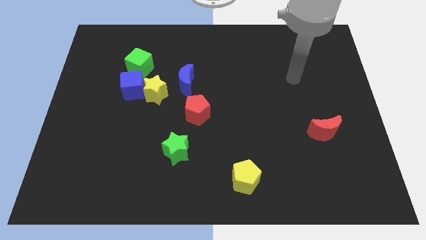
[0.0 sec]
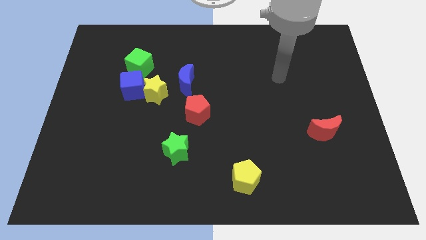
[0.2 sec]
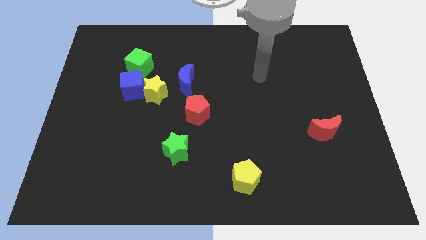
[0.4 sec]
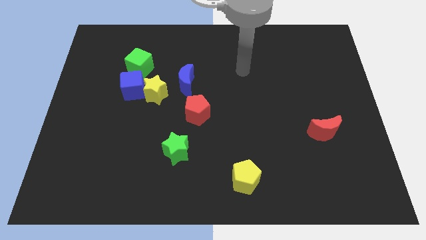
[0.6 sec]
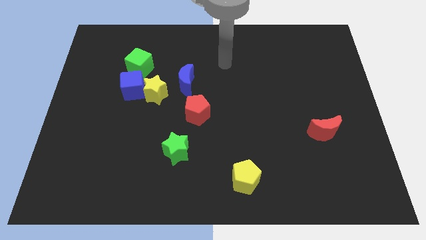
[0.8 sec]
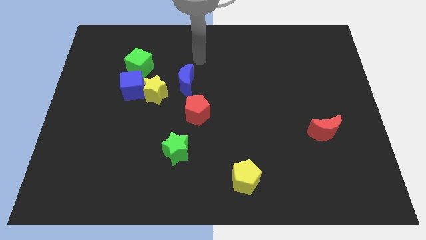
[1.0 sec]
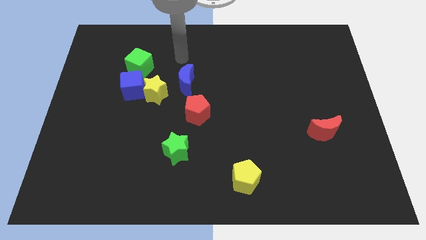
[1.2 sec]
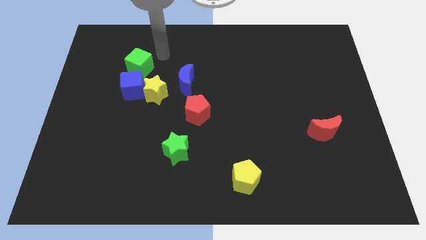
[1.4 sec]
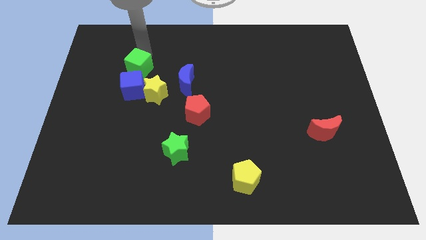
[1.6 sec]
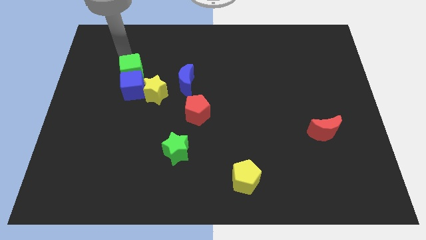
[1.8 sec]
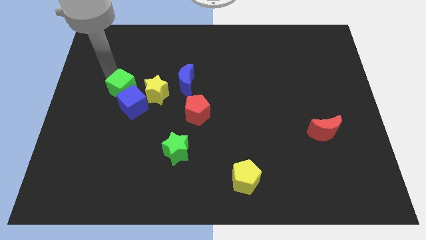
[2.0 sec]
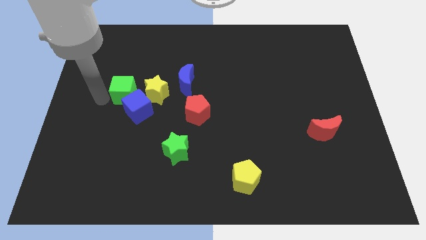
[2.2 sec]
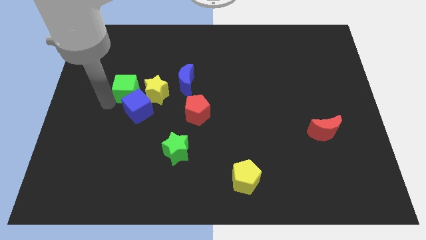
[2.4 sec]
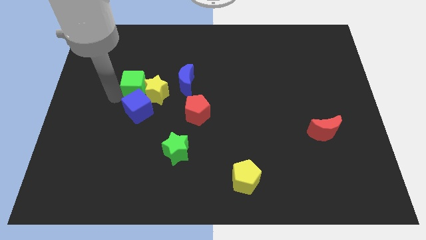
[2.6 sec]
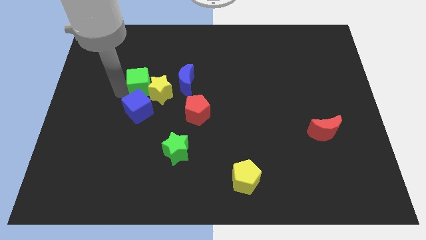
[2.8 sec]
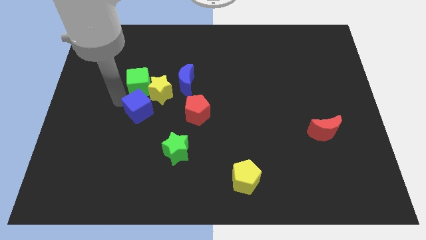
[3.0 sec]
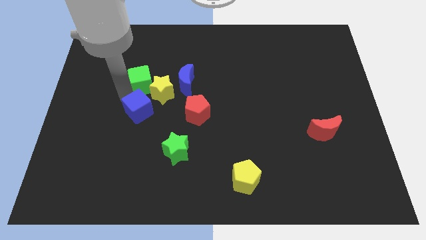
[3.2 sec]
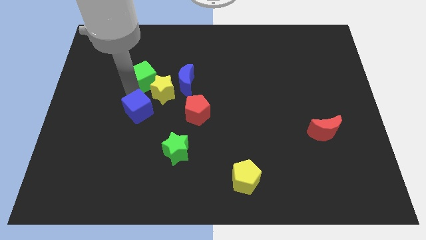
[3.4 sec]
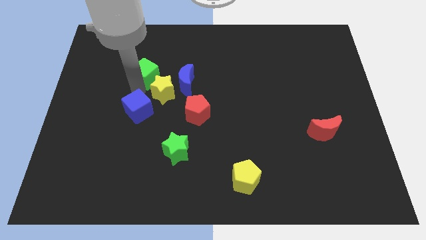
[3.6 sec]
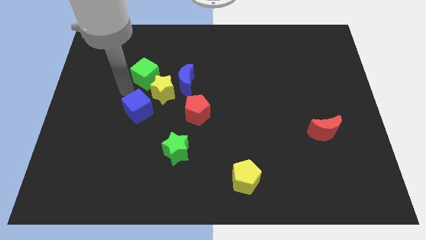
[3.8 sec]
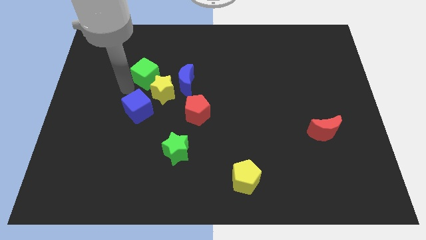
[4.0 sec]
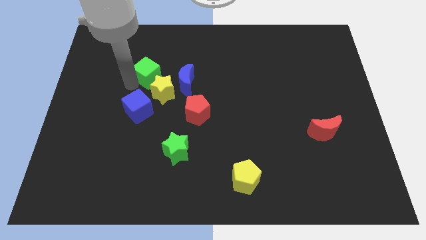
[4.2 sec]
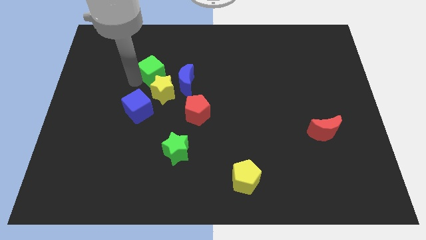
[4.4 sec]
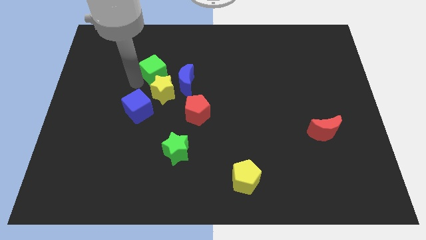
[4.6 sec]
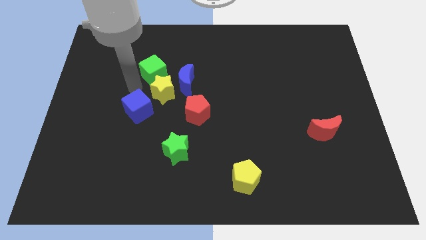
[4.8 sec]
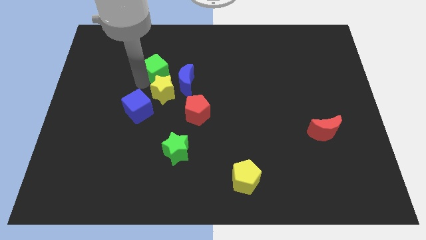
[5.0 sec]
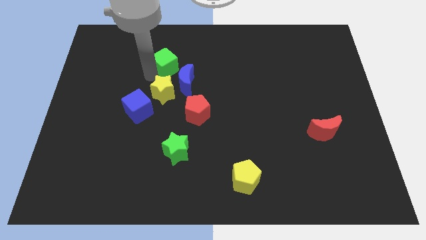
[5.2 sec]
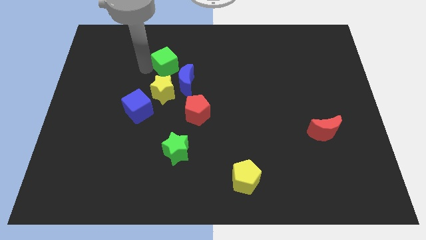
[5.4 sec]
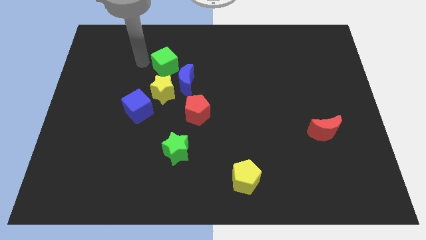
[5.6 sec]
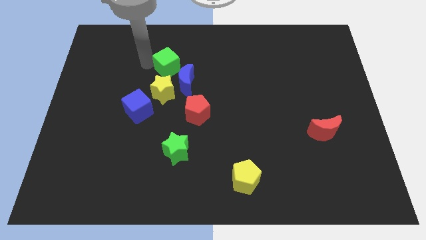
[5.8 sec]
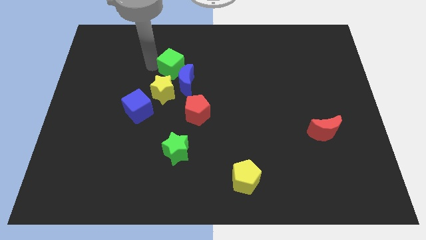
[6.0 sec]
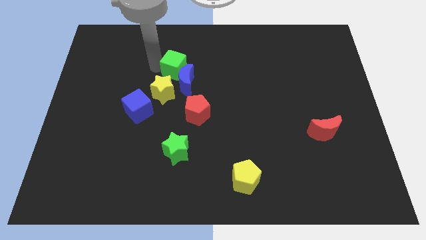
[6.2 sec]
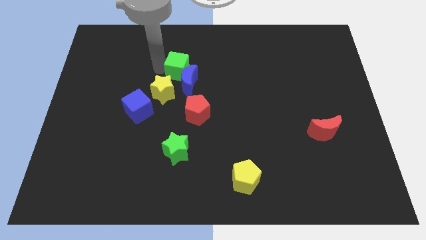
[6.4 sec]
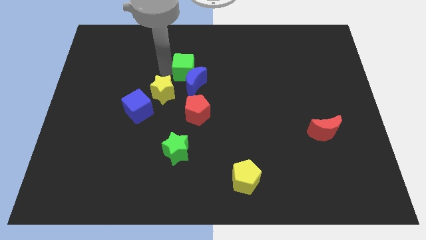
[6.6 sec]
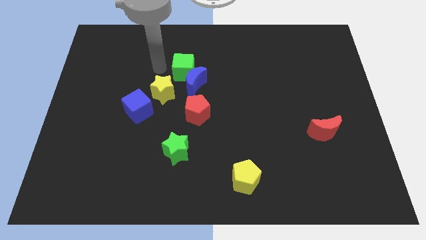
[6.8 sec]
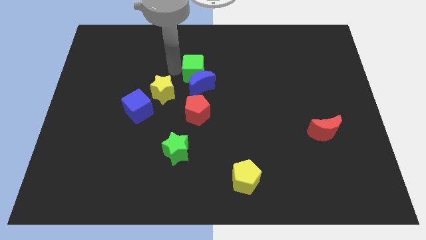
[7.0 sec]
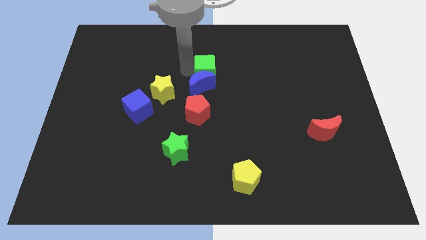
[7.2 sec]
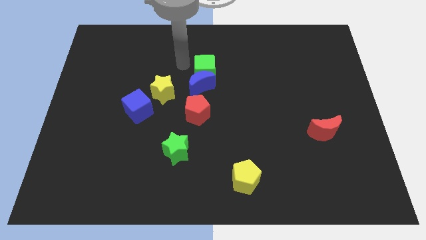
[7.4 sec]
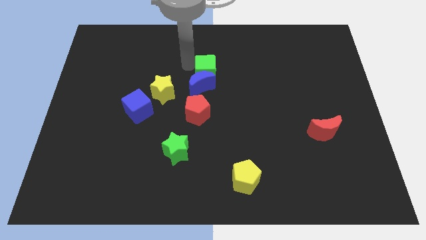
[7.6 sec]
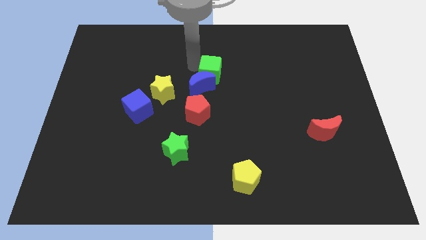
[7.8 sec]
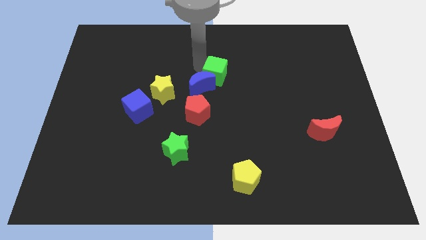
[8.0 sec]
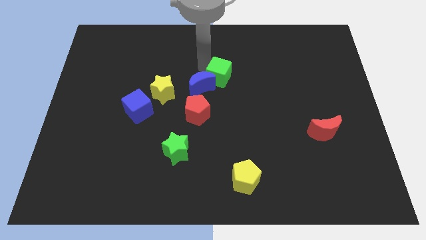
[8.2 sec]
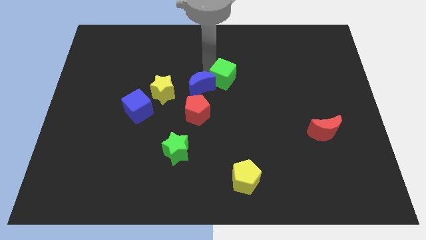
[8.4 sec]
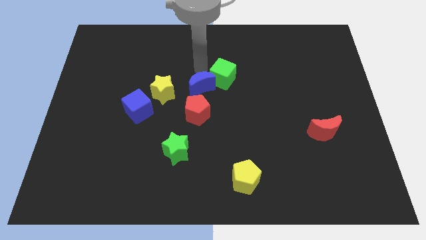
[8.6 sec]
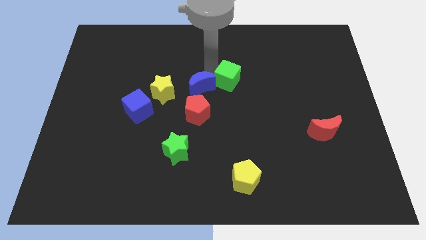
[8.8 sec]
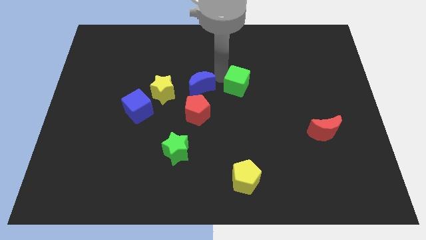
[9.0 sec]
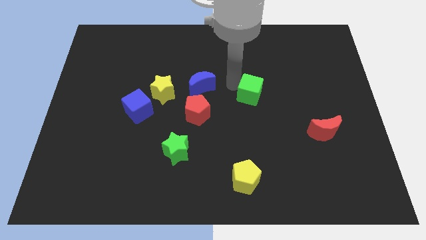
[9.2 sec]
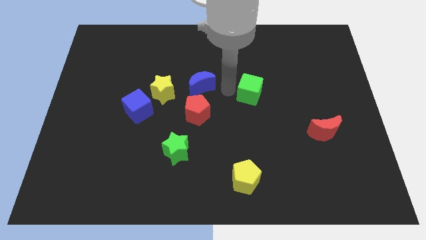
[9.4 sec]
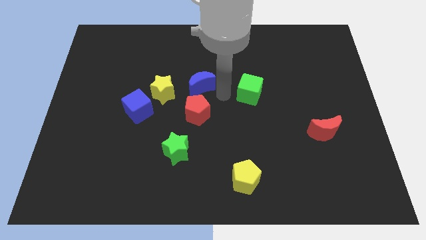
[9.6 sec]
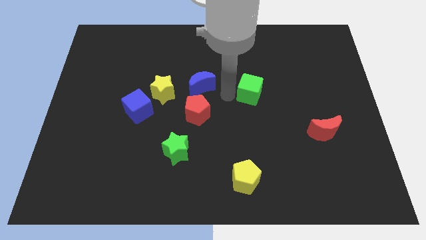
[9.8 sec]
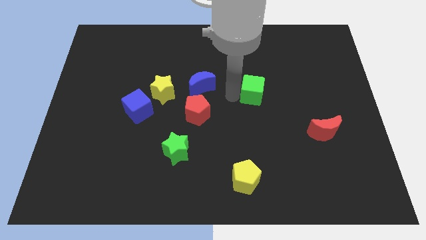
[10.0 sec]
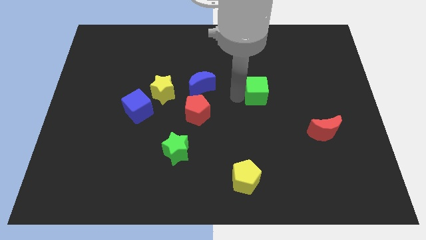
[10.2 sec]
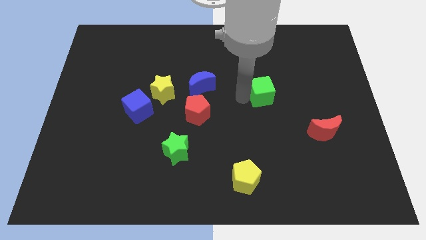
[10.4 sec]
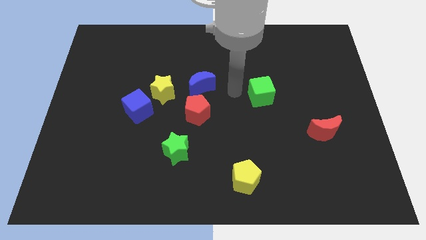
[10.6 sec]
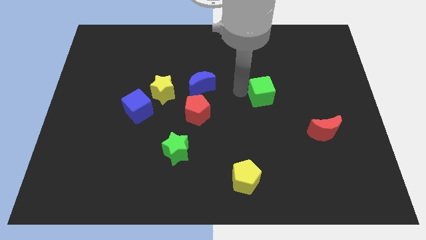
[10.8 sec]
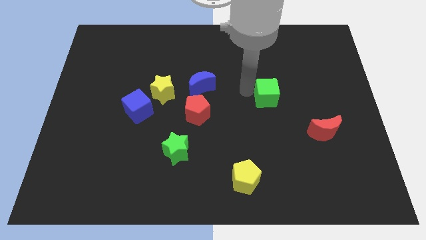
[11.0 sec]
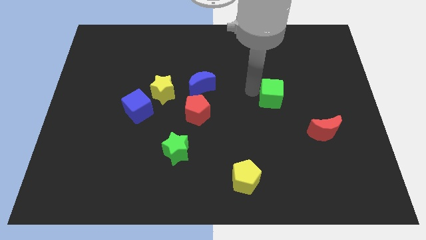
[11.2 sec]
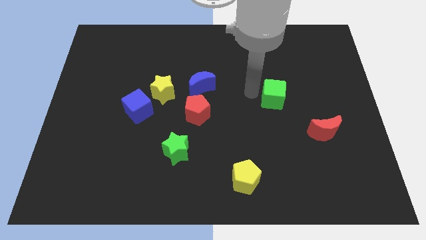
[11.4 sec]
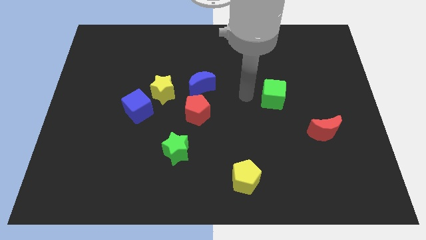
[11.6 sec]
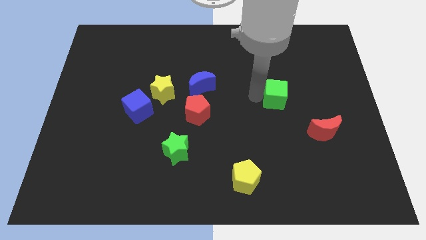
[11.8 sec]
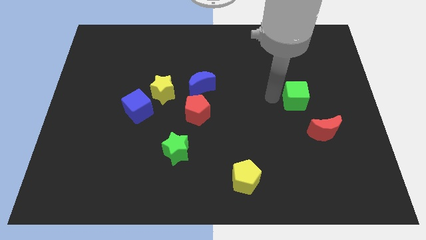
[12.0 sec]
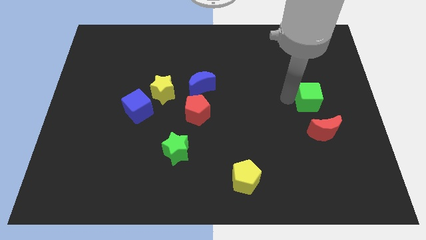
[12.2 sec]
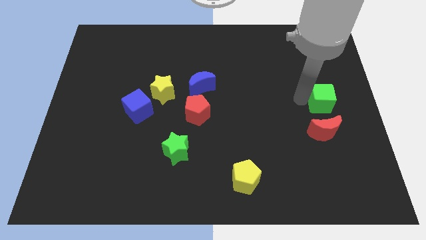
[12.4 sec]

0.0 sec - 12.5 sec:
put the green cube to the right side

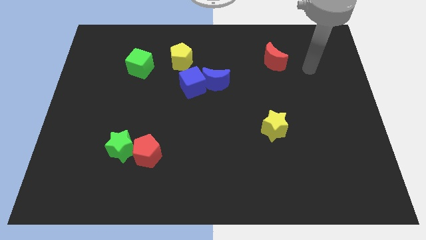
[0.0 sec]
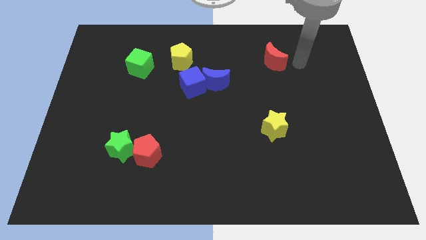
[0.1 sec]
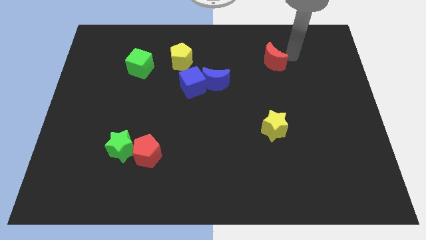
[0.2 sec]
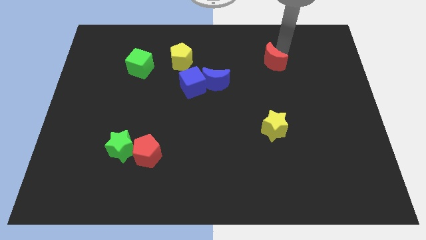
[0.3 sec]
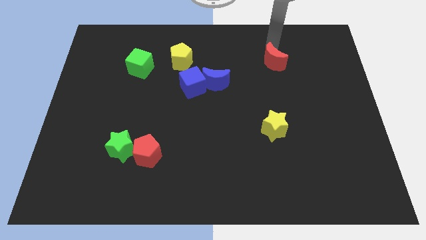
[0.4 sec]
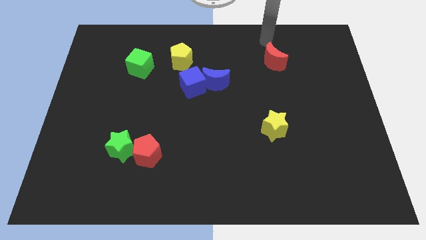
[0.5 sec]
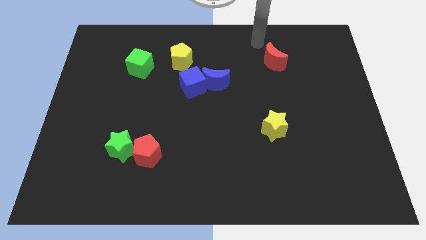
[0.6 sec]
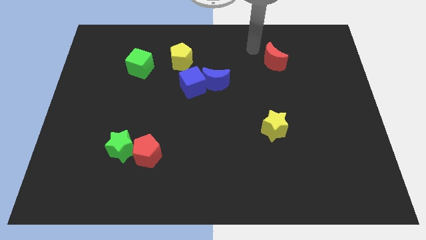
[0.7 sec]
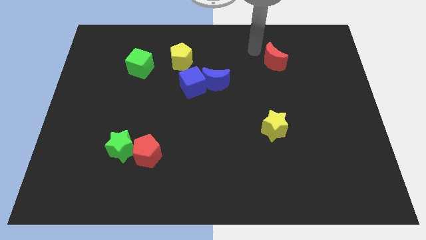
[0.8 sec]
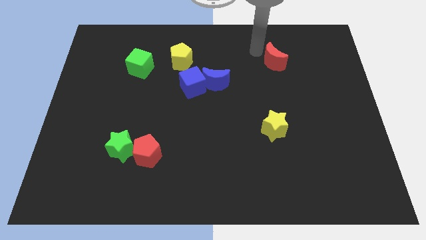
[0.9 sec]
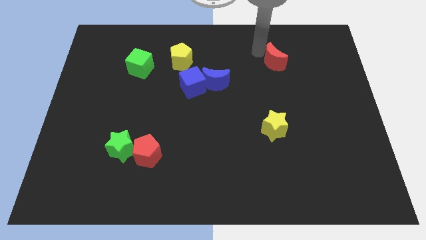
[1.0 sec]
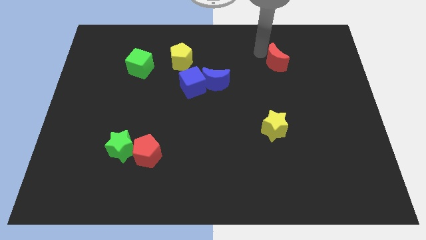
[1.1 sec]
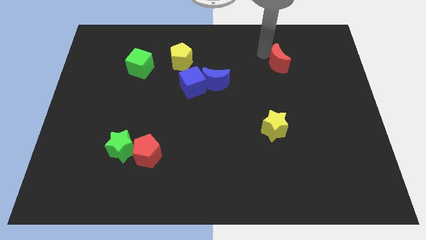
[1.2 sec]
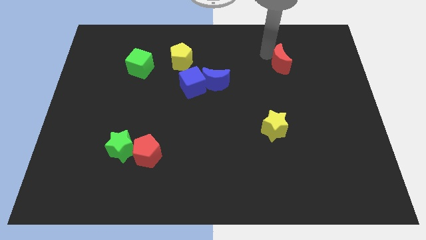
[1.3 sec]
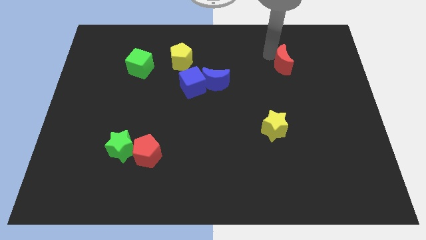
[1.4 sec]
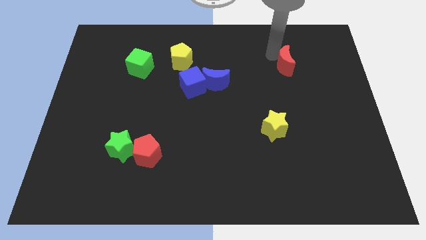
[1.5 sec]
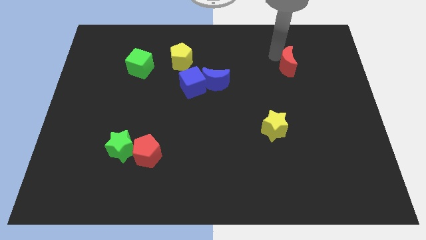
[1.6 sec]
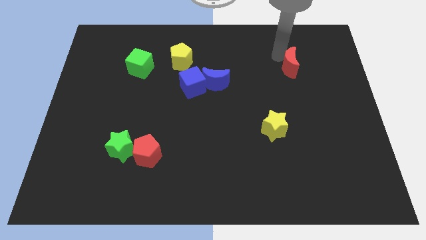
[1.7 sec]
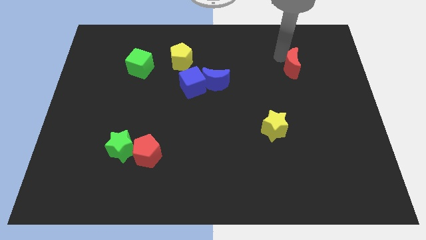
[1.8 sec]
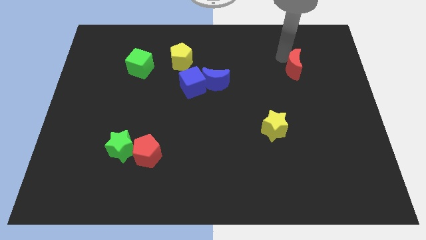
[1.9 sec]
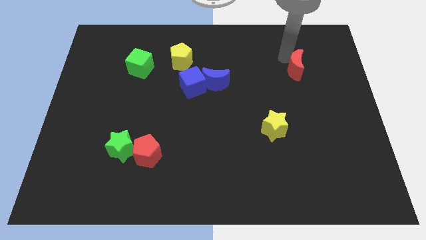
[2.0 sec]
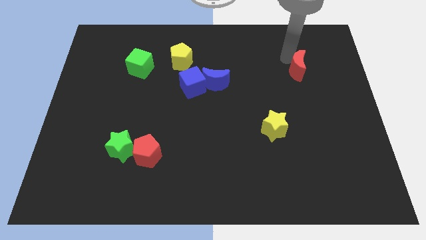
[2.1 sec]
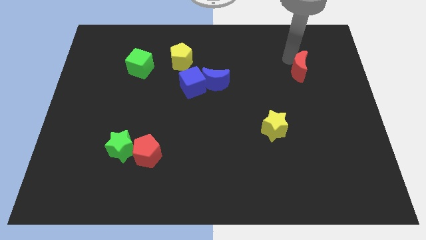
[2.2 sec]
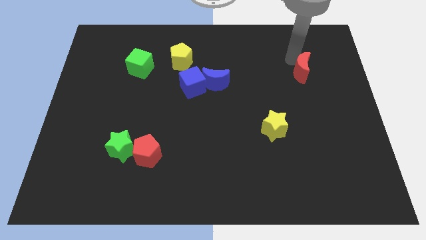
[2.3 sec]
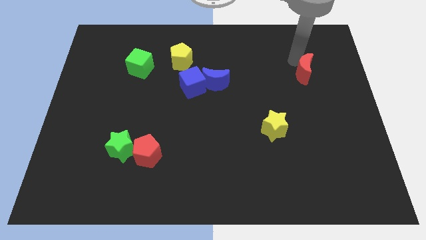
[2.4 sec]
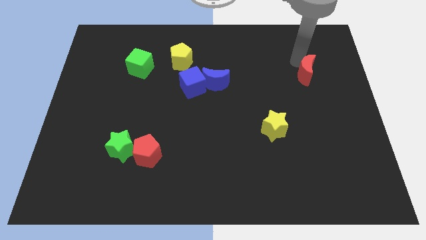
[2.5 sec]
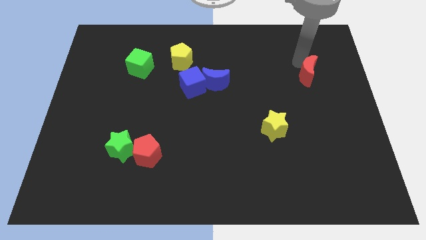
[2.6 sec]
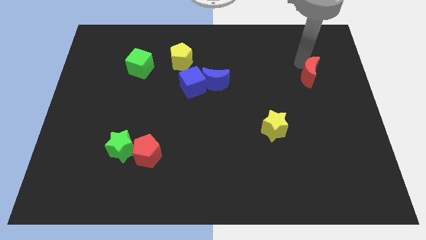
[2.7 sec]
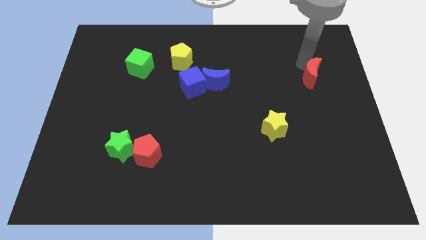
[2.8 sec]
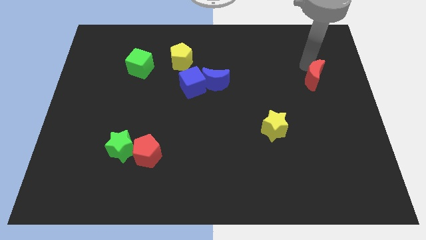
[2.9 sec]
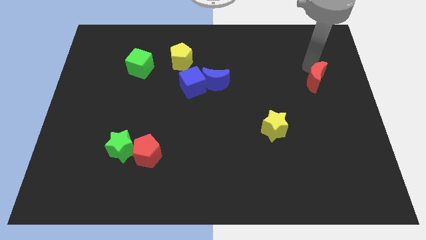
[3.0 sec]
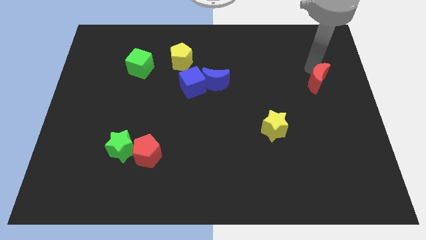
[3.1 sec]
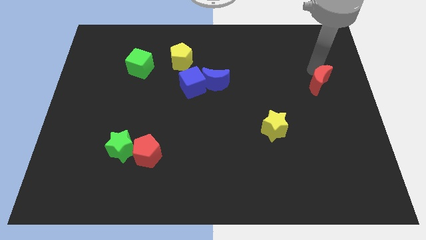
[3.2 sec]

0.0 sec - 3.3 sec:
push the red moon to the right side of the board
